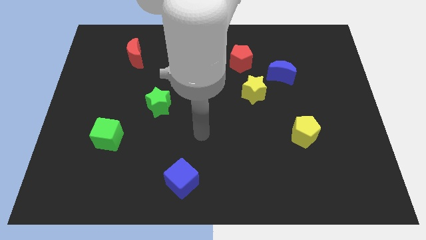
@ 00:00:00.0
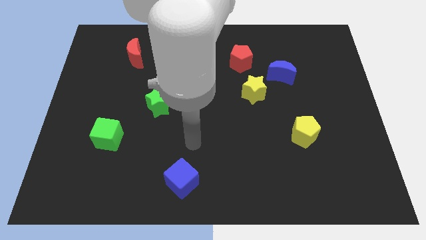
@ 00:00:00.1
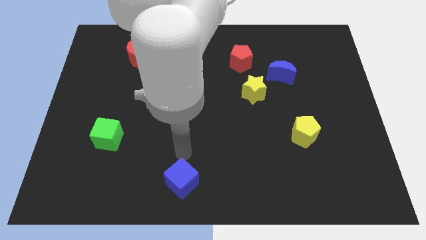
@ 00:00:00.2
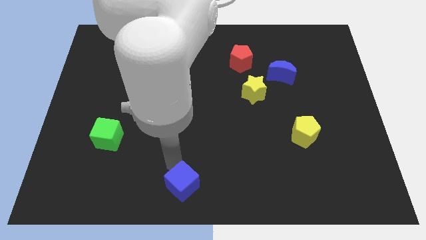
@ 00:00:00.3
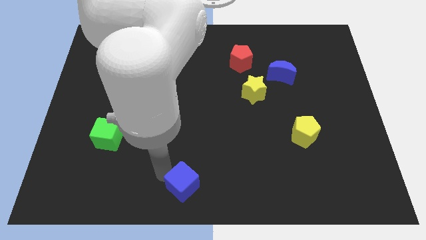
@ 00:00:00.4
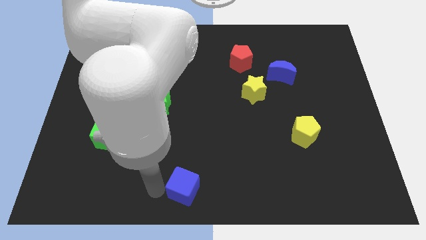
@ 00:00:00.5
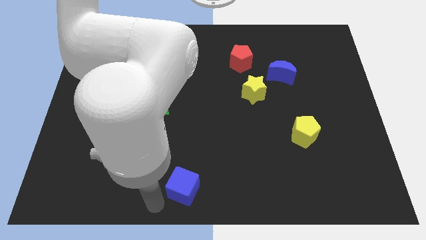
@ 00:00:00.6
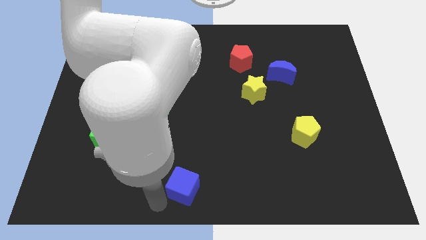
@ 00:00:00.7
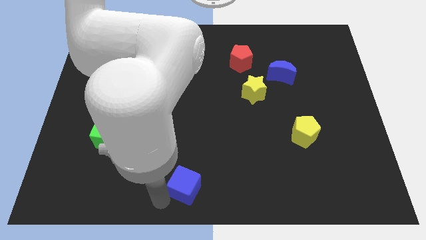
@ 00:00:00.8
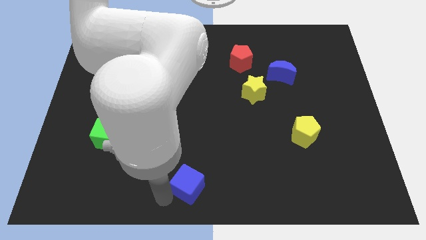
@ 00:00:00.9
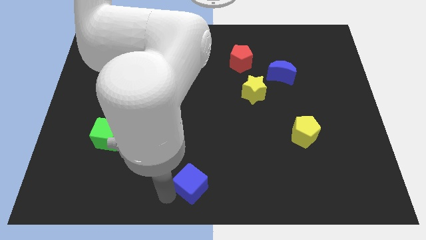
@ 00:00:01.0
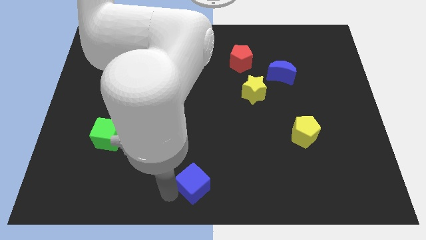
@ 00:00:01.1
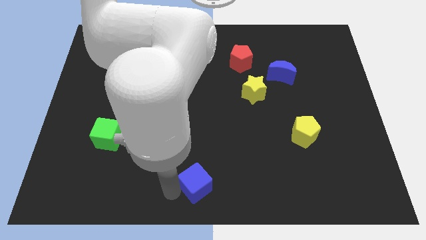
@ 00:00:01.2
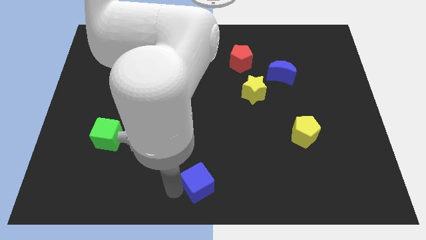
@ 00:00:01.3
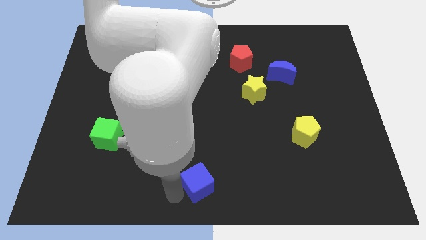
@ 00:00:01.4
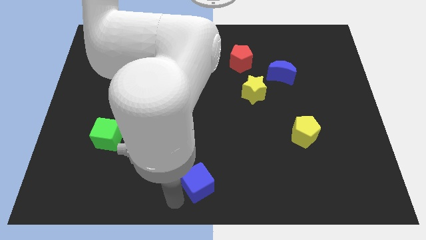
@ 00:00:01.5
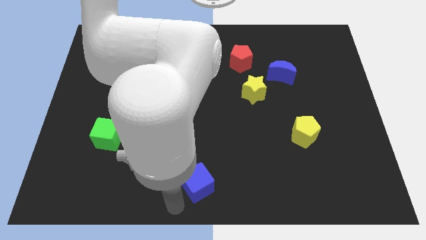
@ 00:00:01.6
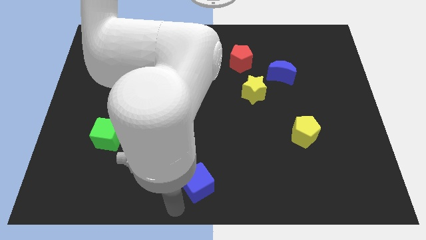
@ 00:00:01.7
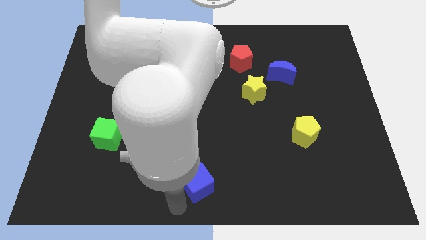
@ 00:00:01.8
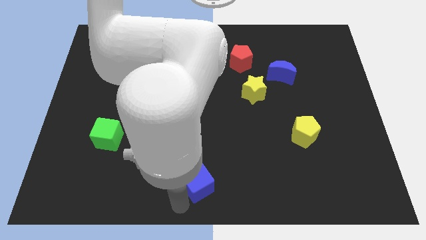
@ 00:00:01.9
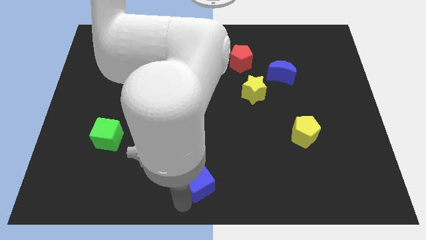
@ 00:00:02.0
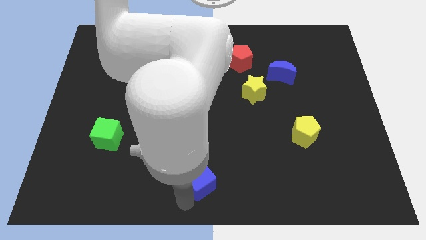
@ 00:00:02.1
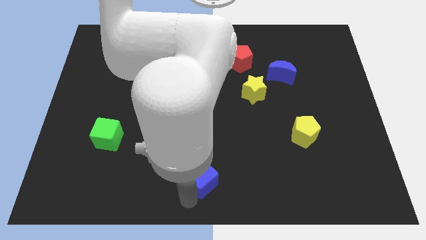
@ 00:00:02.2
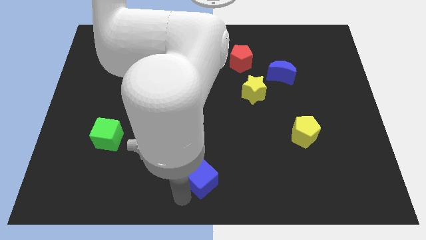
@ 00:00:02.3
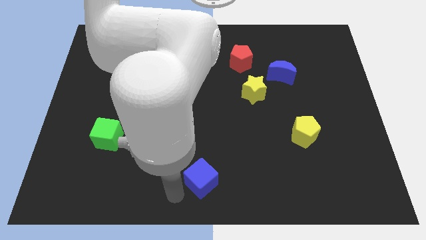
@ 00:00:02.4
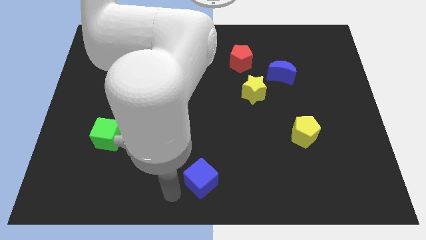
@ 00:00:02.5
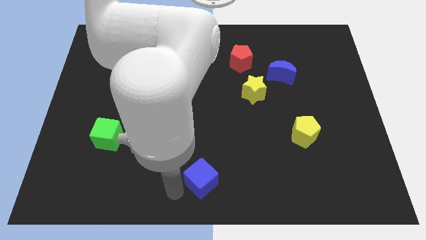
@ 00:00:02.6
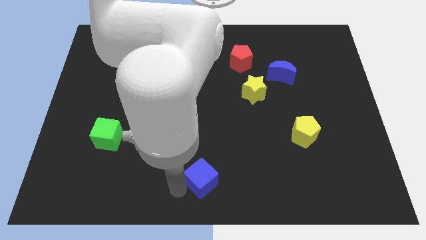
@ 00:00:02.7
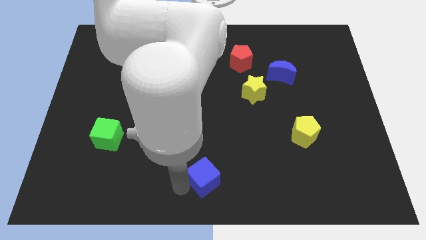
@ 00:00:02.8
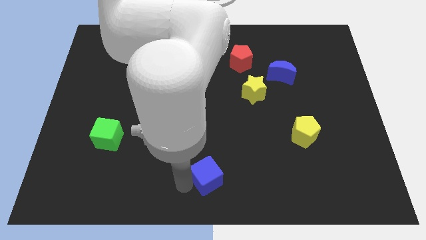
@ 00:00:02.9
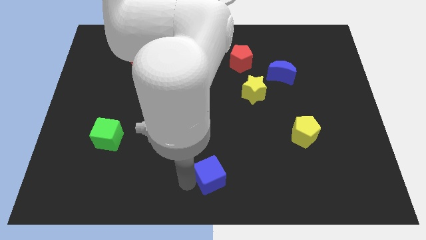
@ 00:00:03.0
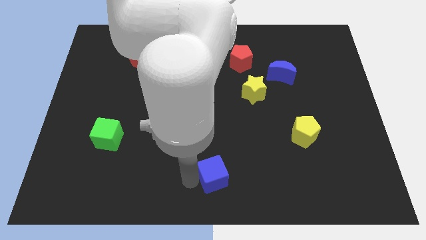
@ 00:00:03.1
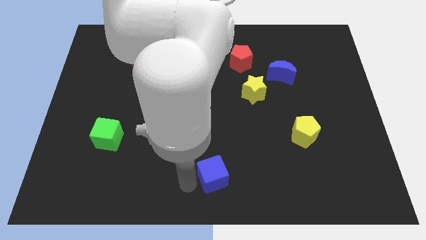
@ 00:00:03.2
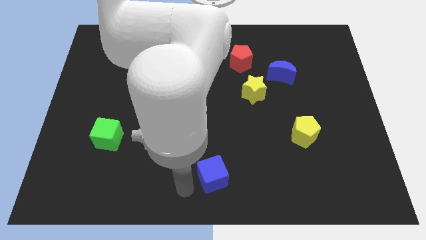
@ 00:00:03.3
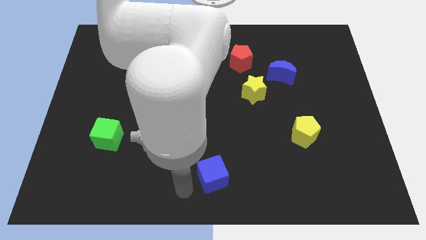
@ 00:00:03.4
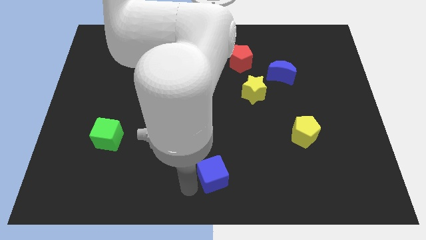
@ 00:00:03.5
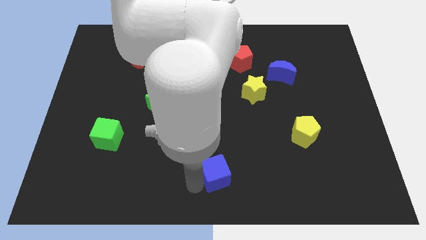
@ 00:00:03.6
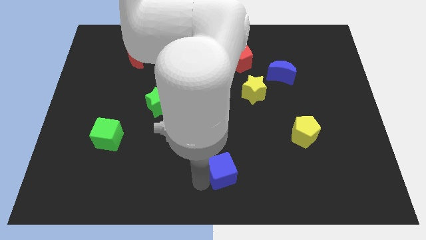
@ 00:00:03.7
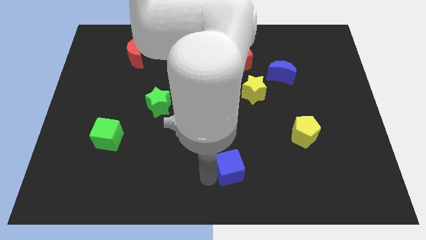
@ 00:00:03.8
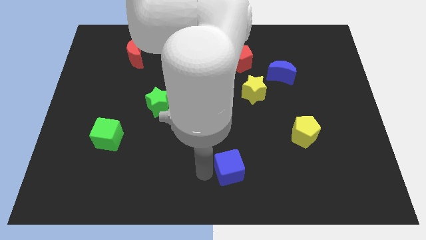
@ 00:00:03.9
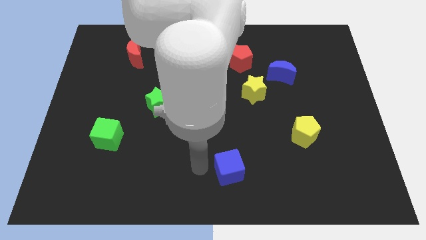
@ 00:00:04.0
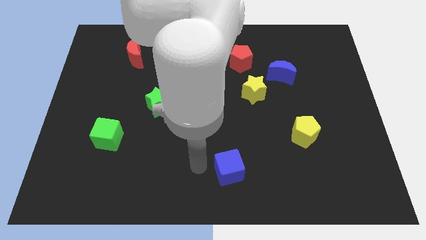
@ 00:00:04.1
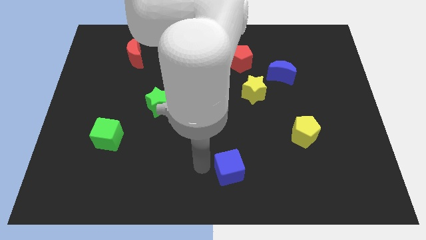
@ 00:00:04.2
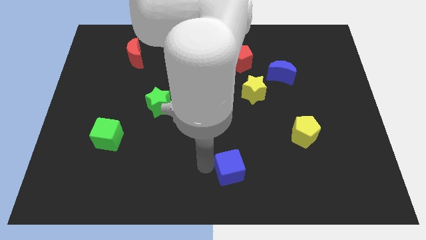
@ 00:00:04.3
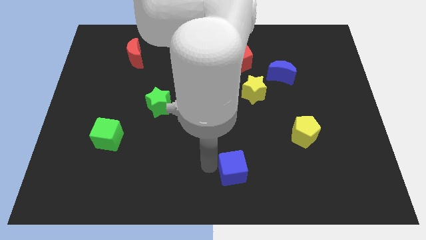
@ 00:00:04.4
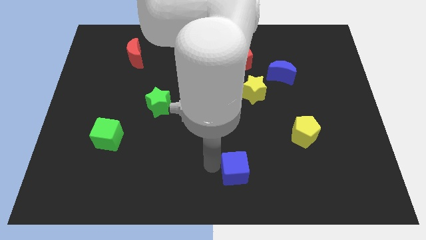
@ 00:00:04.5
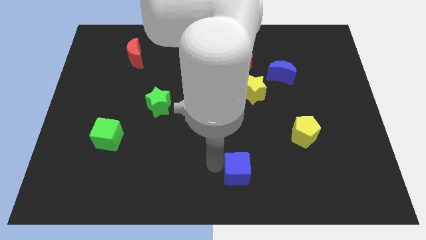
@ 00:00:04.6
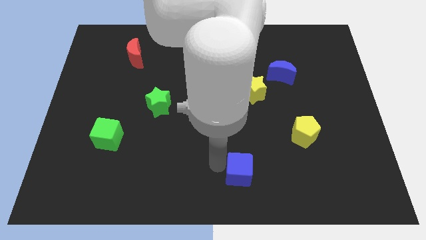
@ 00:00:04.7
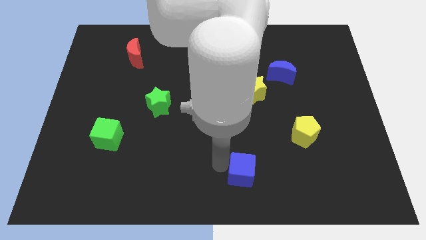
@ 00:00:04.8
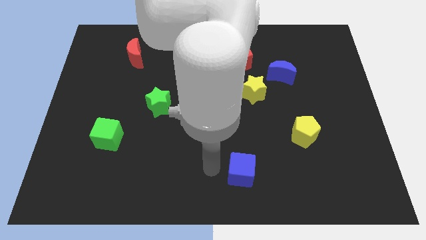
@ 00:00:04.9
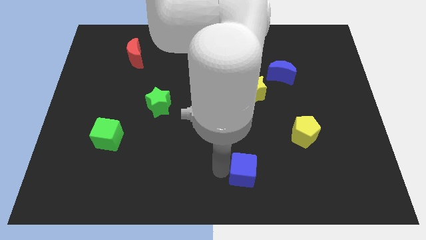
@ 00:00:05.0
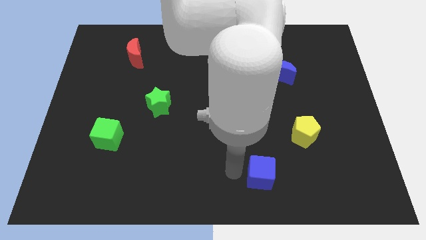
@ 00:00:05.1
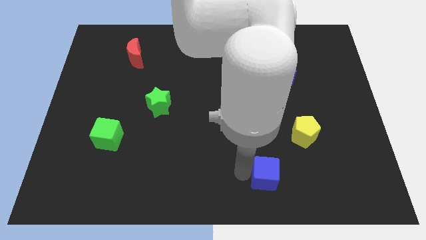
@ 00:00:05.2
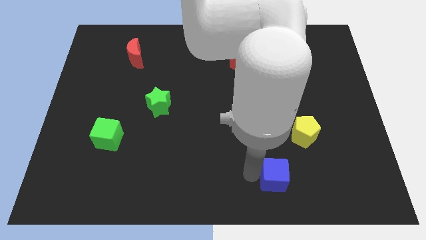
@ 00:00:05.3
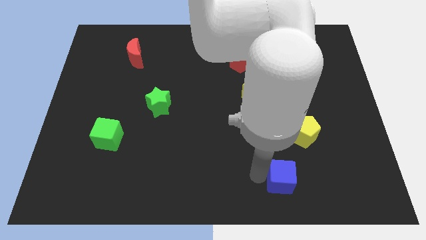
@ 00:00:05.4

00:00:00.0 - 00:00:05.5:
move the blue cube right

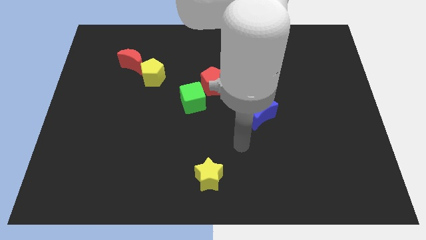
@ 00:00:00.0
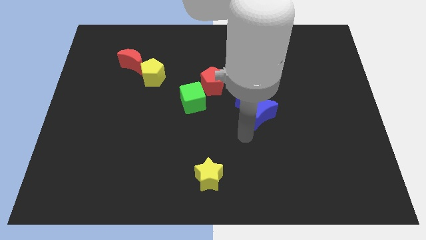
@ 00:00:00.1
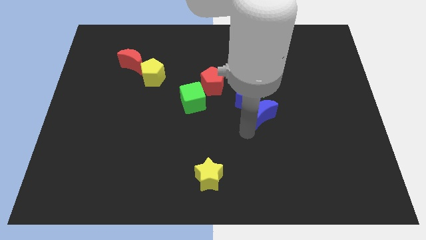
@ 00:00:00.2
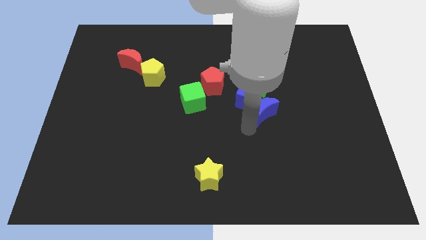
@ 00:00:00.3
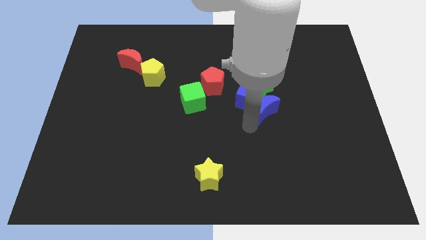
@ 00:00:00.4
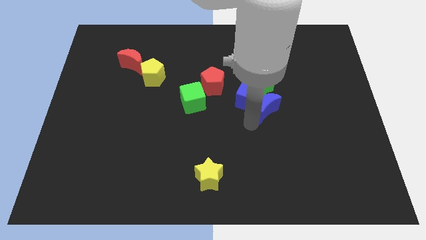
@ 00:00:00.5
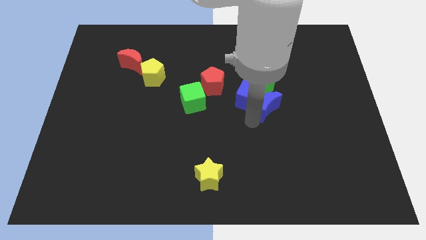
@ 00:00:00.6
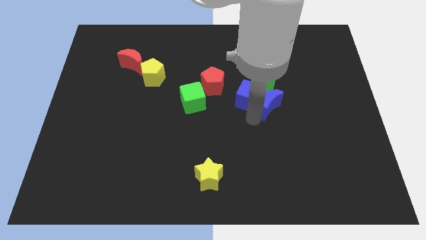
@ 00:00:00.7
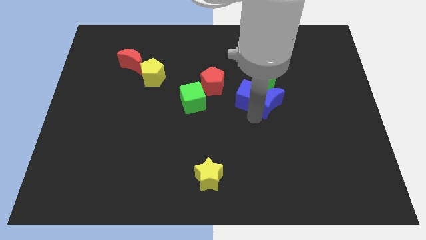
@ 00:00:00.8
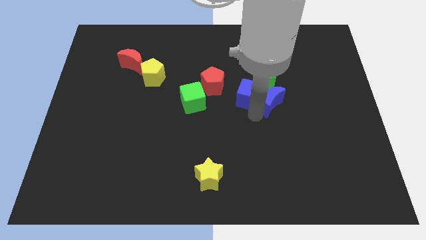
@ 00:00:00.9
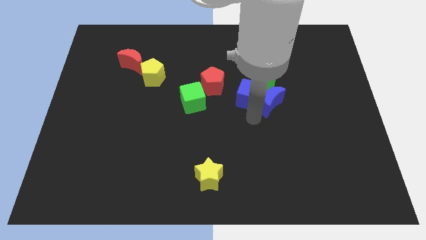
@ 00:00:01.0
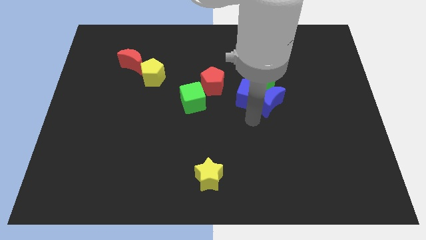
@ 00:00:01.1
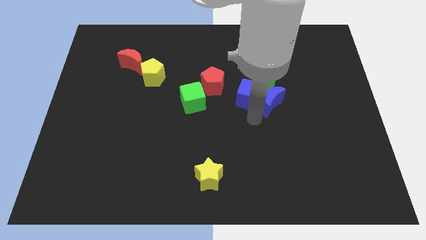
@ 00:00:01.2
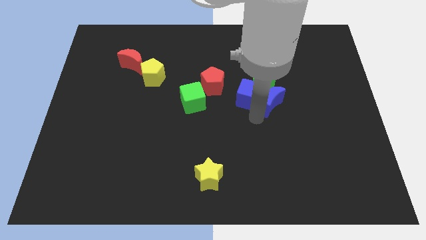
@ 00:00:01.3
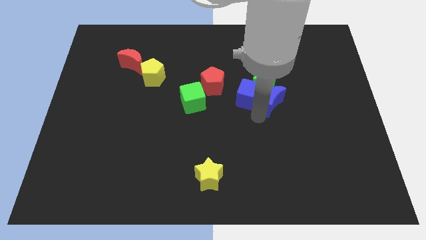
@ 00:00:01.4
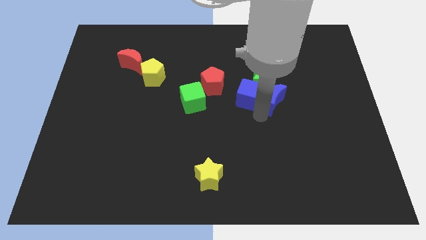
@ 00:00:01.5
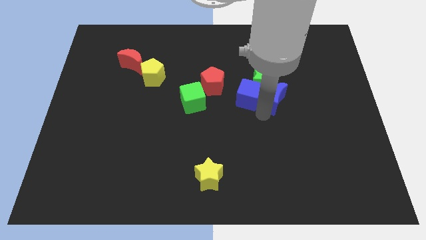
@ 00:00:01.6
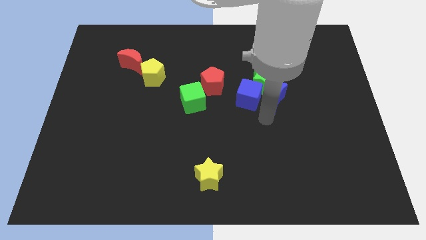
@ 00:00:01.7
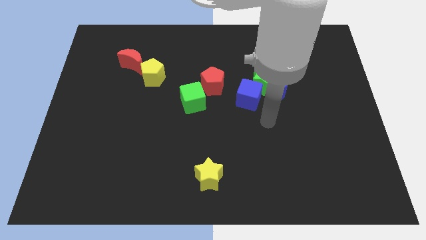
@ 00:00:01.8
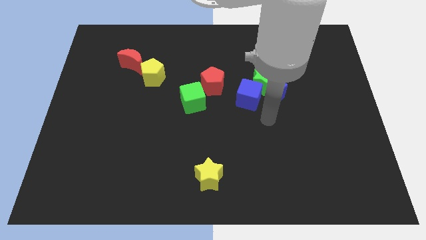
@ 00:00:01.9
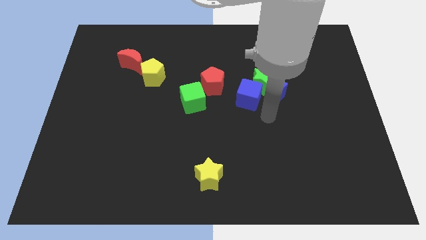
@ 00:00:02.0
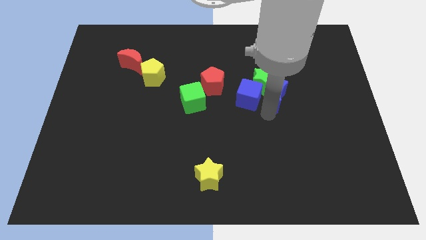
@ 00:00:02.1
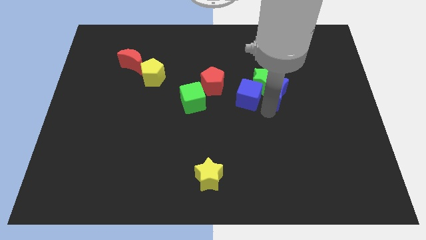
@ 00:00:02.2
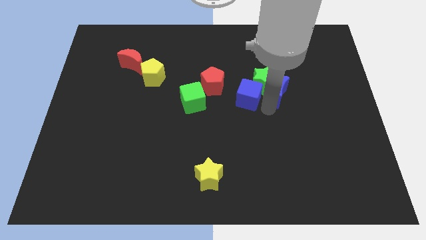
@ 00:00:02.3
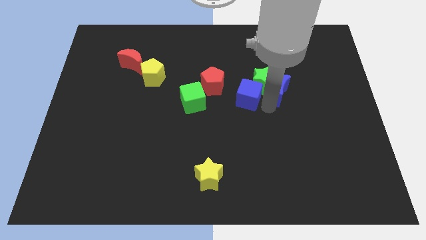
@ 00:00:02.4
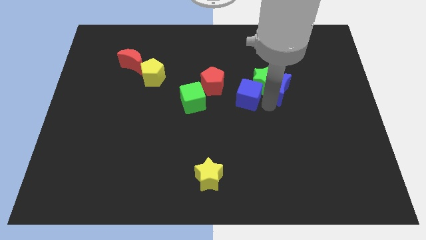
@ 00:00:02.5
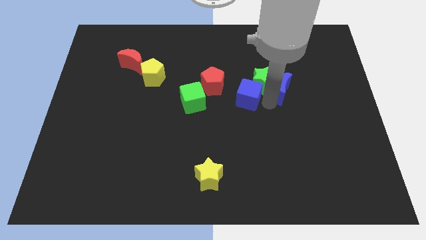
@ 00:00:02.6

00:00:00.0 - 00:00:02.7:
slide the blue moon up a little bit
